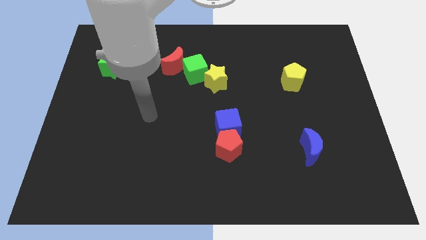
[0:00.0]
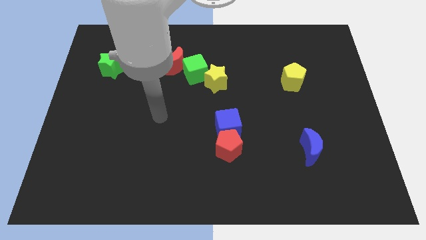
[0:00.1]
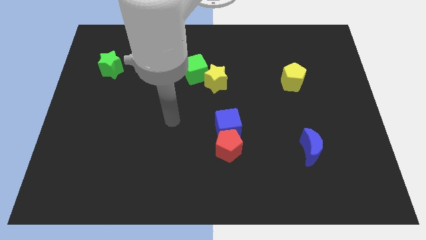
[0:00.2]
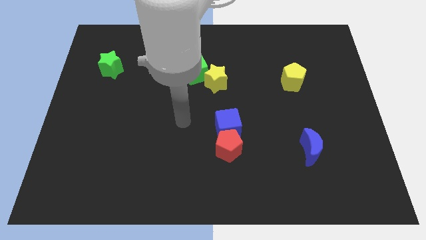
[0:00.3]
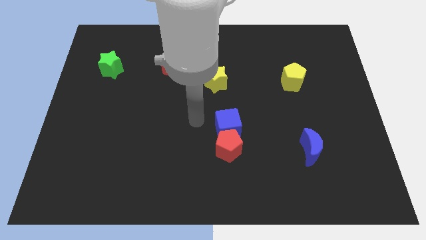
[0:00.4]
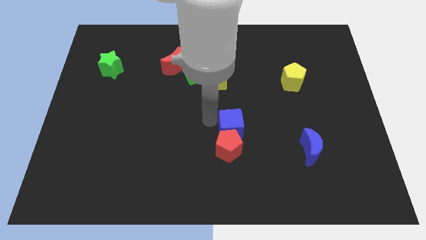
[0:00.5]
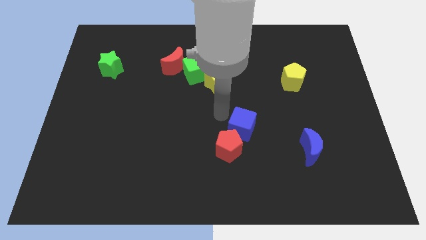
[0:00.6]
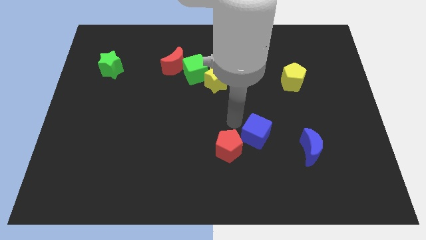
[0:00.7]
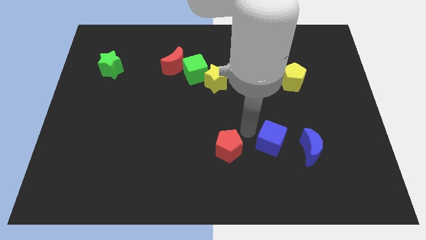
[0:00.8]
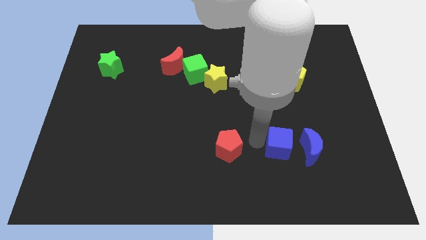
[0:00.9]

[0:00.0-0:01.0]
separate the red pentagon from the blue cube

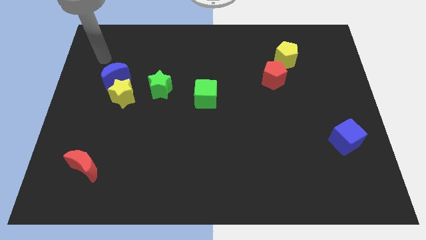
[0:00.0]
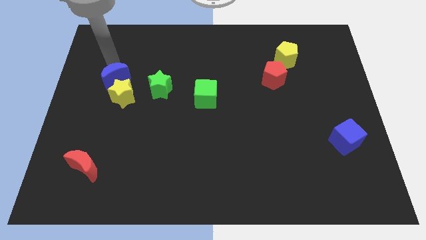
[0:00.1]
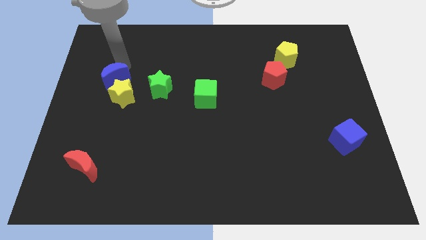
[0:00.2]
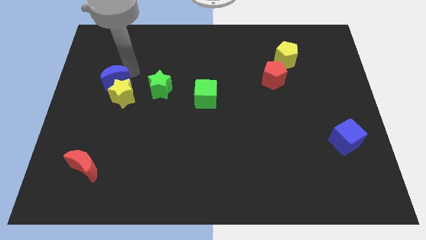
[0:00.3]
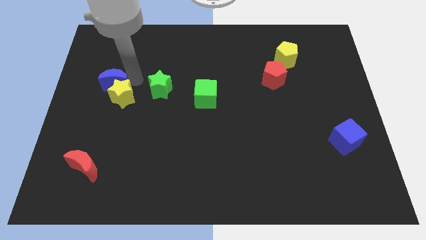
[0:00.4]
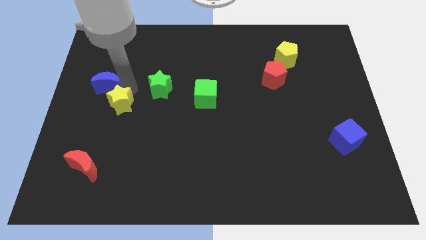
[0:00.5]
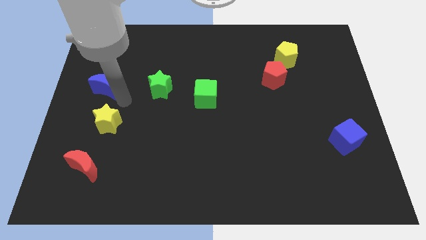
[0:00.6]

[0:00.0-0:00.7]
move the blue moon away from the yellow star

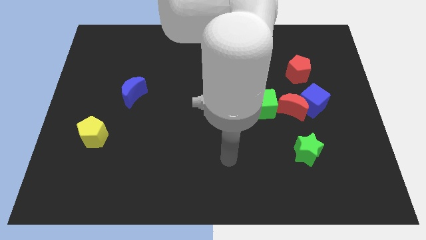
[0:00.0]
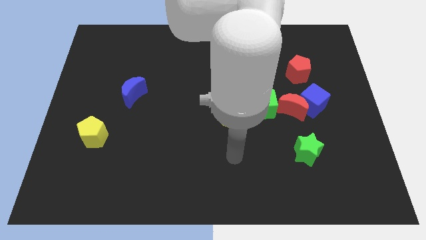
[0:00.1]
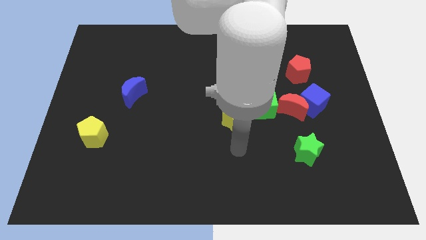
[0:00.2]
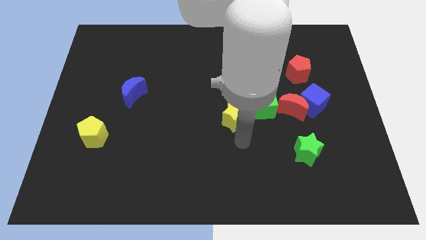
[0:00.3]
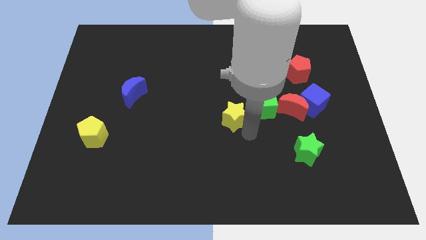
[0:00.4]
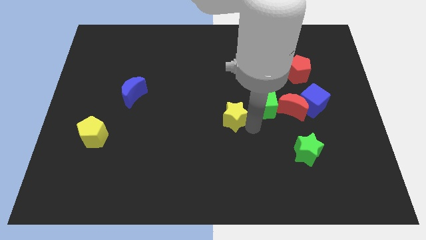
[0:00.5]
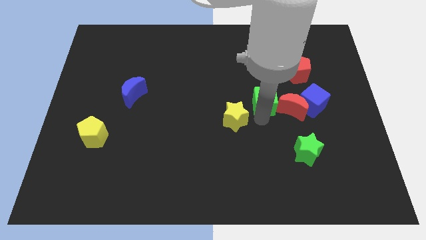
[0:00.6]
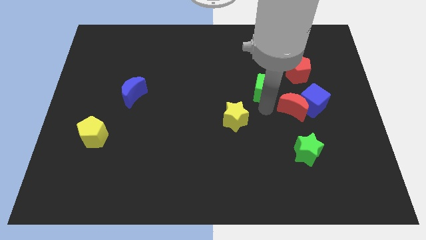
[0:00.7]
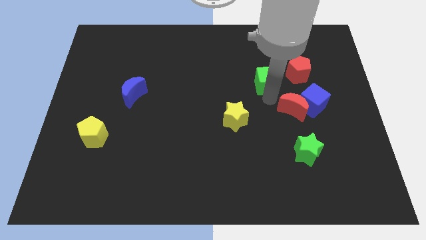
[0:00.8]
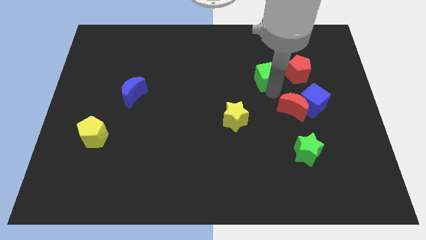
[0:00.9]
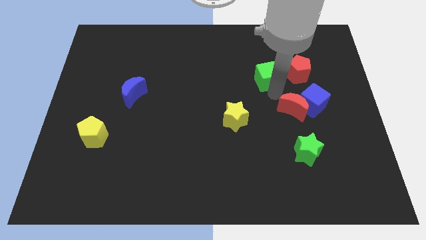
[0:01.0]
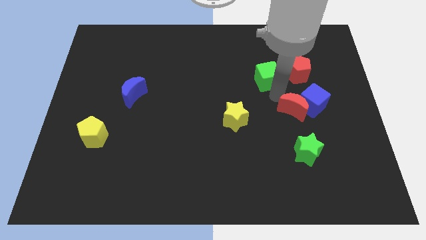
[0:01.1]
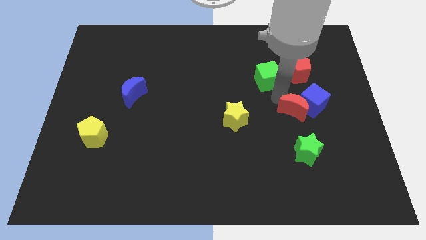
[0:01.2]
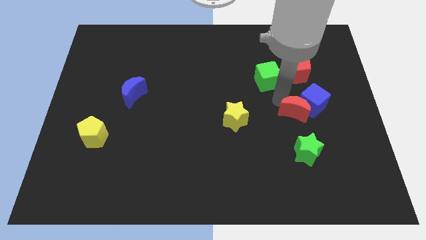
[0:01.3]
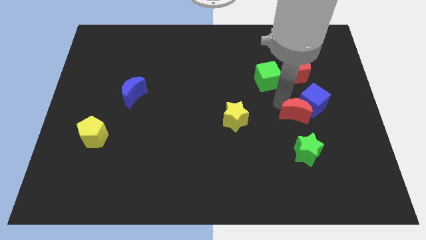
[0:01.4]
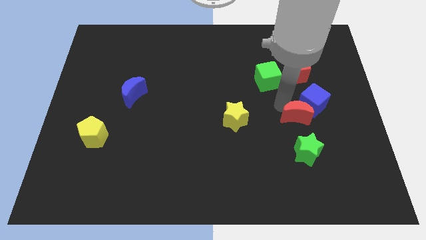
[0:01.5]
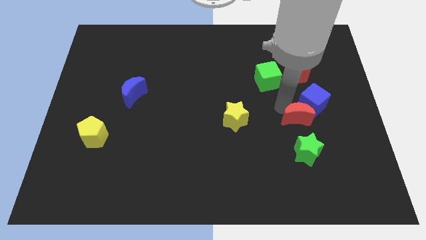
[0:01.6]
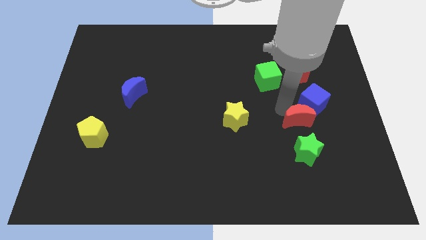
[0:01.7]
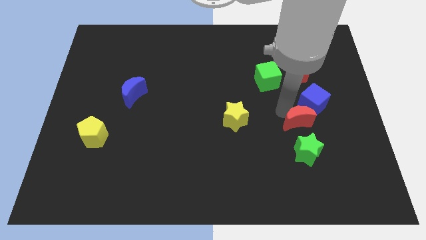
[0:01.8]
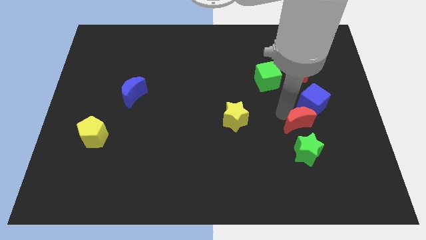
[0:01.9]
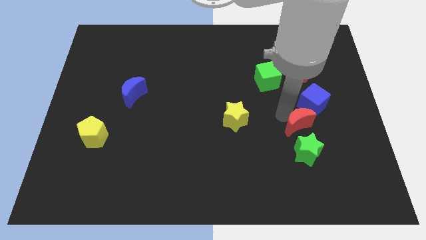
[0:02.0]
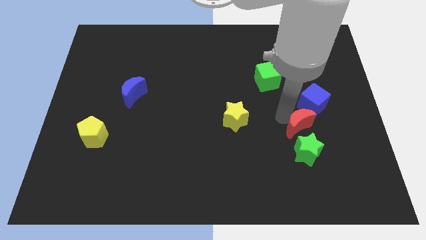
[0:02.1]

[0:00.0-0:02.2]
pull the red moon apart from the blue cube and green cube

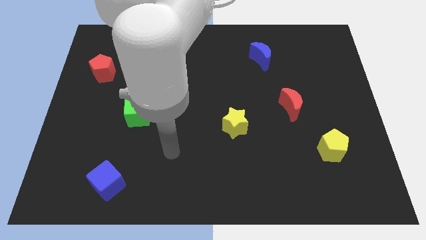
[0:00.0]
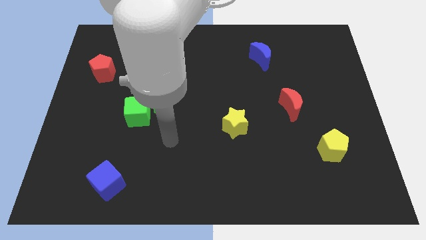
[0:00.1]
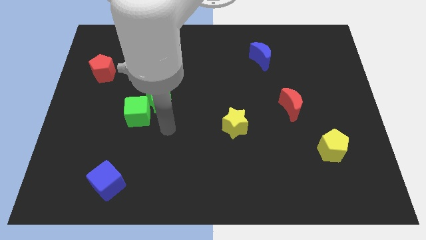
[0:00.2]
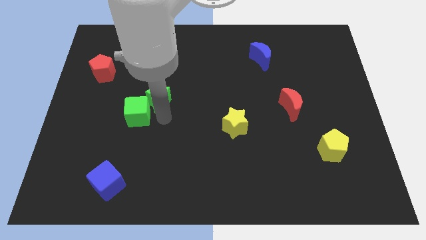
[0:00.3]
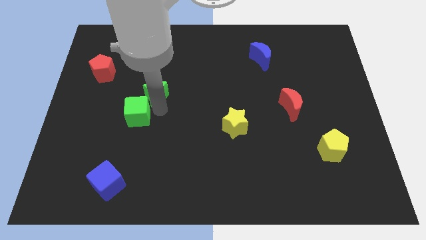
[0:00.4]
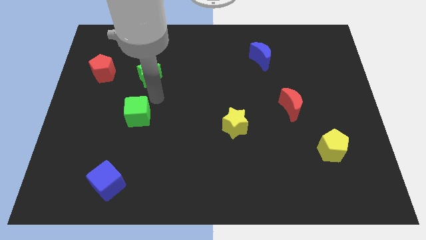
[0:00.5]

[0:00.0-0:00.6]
move the green cube away from the green star

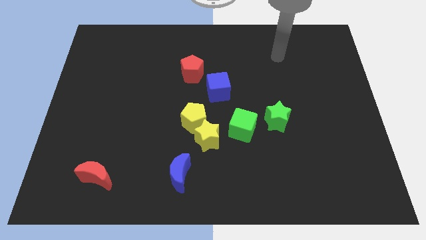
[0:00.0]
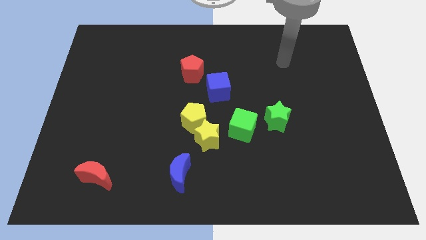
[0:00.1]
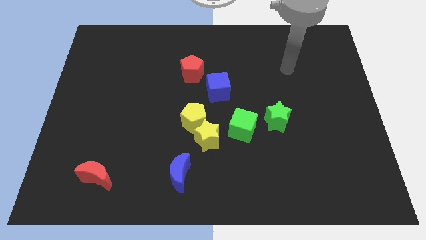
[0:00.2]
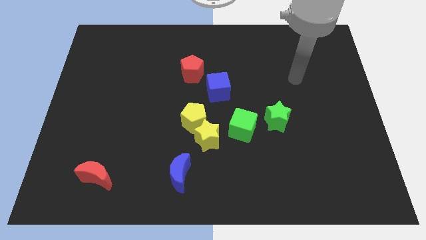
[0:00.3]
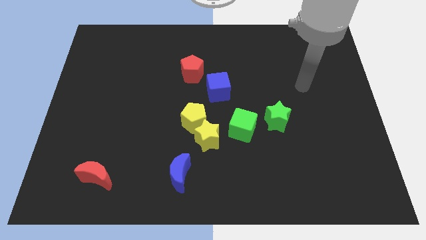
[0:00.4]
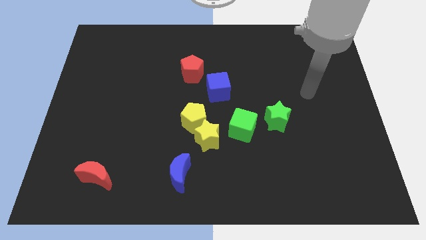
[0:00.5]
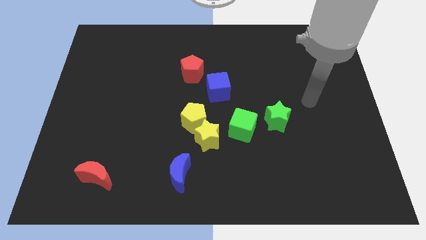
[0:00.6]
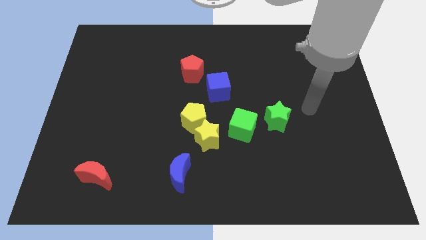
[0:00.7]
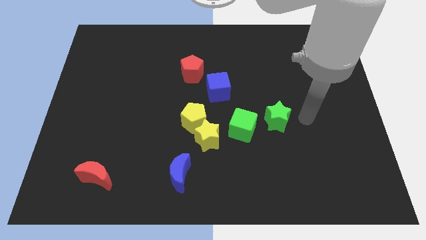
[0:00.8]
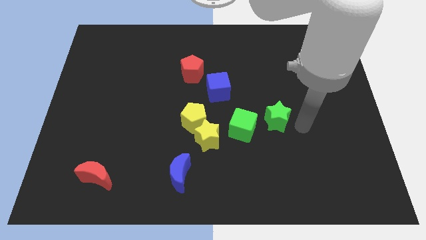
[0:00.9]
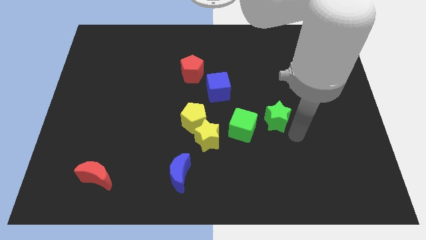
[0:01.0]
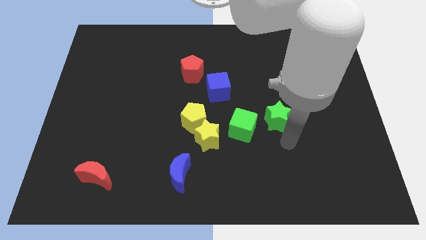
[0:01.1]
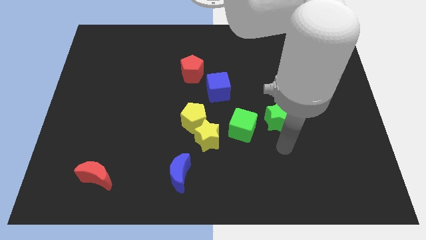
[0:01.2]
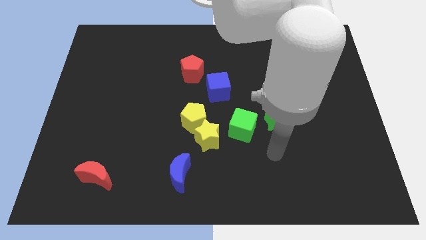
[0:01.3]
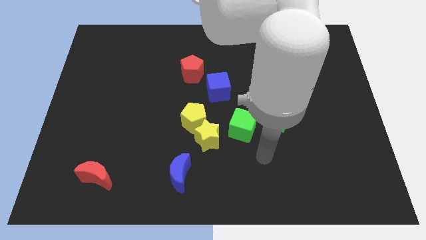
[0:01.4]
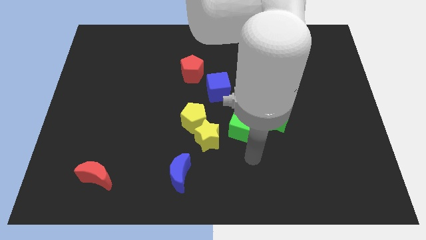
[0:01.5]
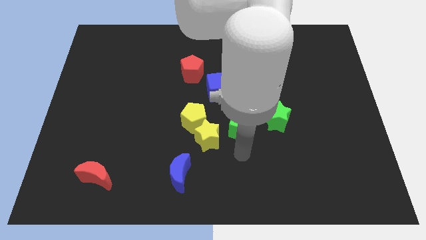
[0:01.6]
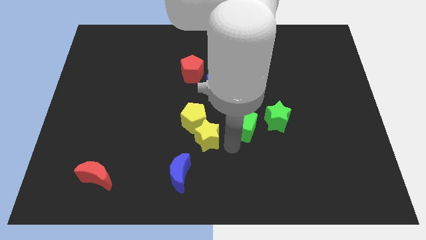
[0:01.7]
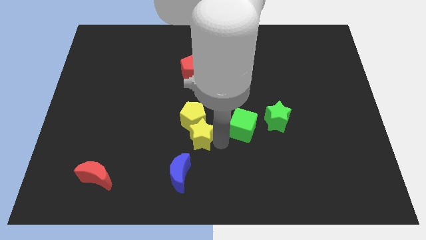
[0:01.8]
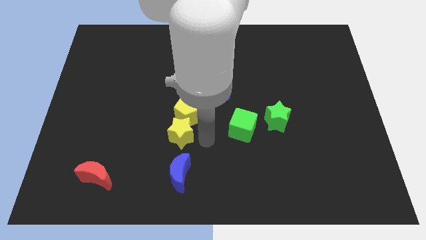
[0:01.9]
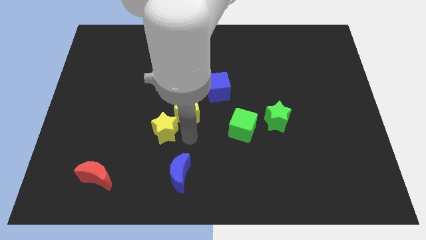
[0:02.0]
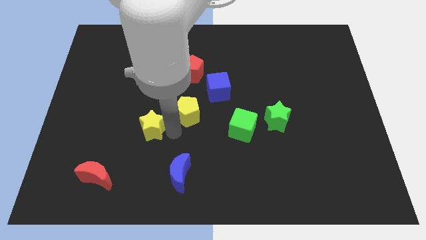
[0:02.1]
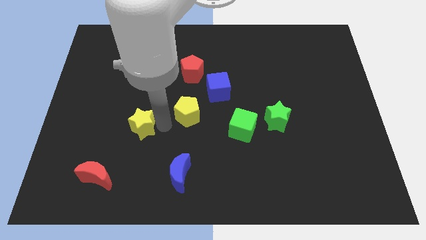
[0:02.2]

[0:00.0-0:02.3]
pull the yellow pentagon apart from the yellow star

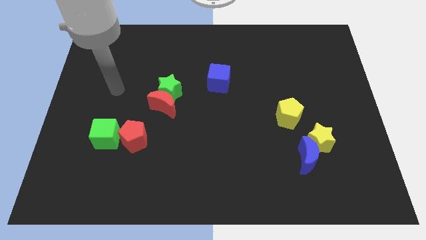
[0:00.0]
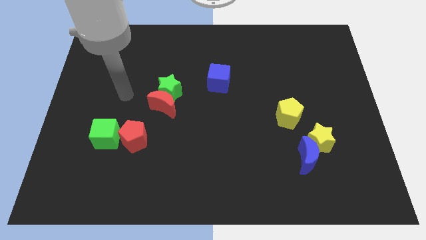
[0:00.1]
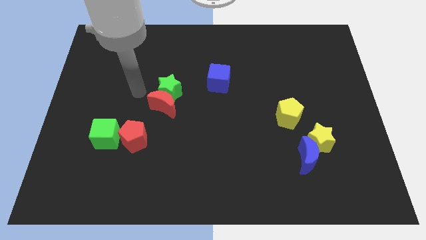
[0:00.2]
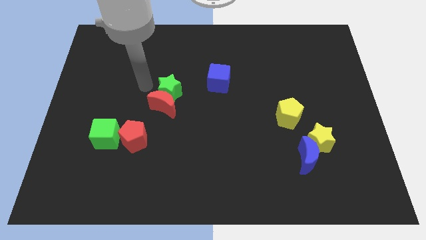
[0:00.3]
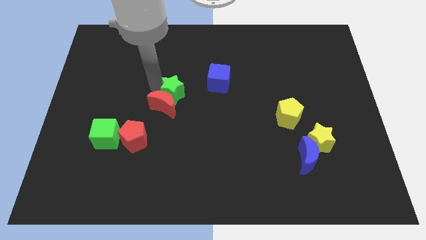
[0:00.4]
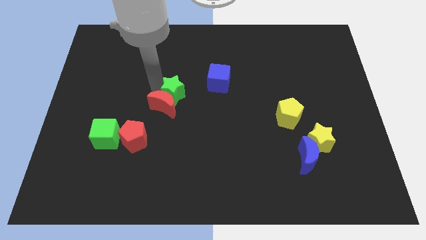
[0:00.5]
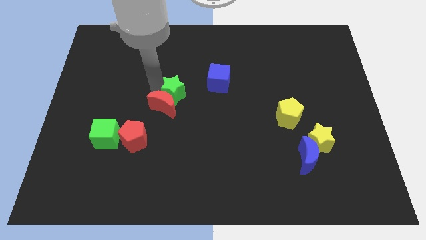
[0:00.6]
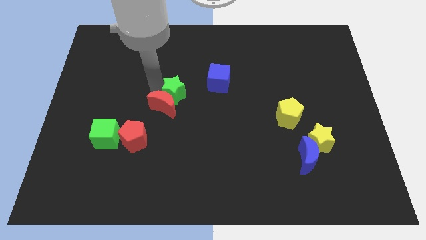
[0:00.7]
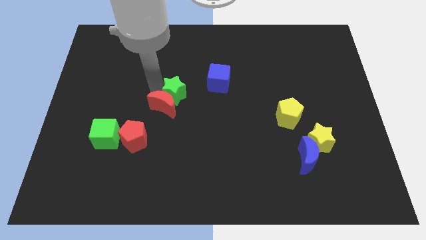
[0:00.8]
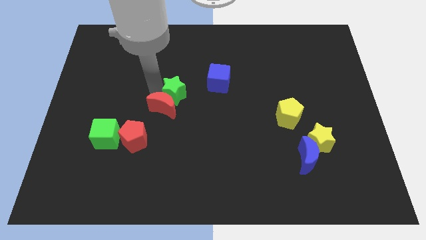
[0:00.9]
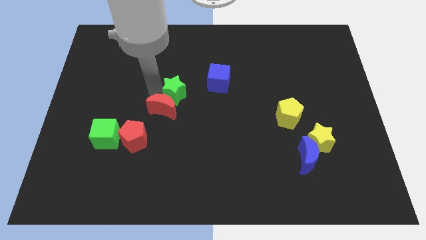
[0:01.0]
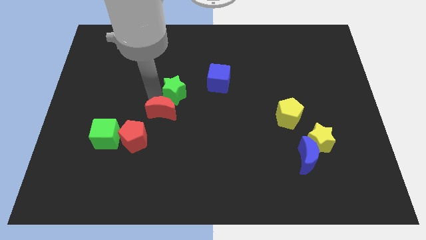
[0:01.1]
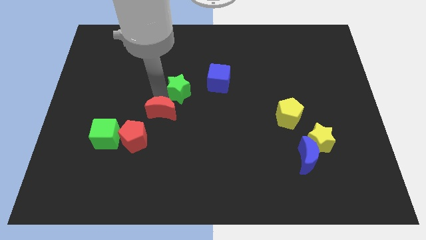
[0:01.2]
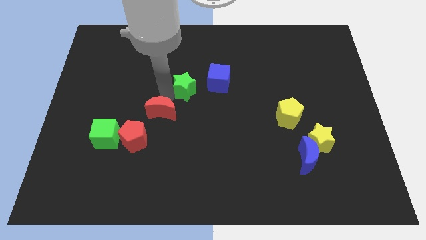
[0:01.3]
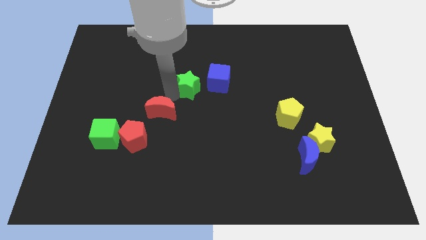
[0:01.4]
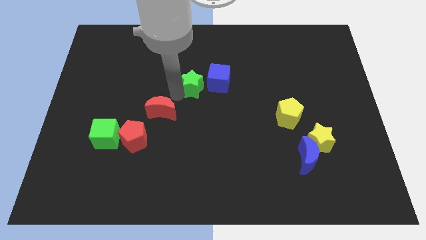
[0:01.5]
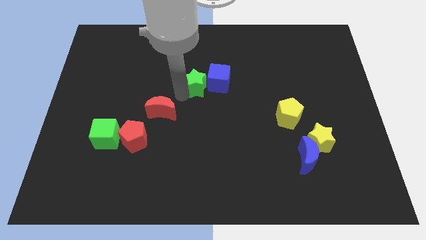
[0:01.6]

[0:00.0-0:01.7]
pull the red moon apart from the green star

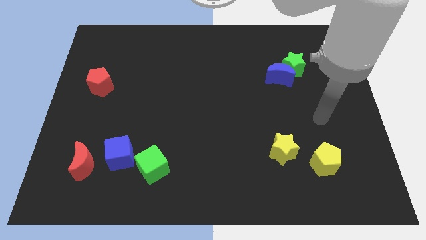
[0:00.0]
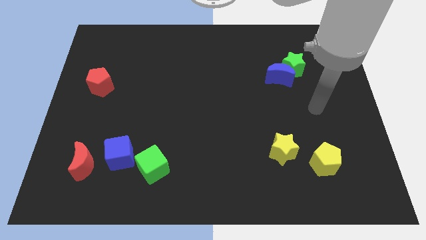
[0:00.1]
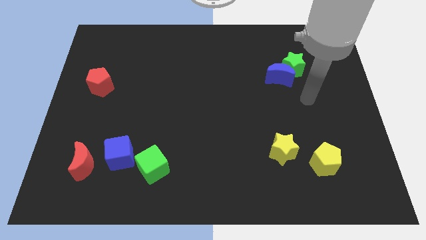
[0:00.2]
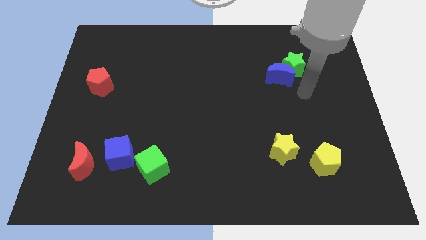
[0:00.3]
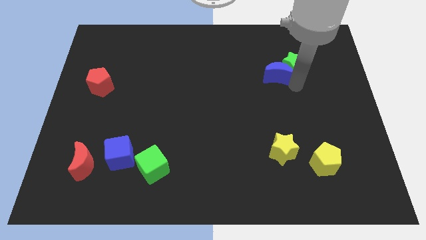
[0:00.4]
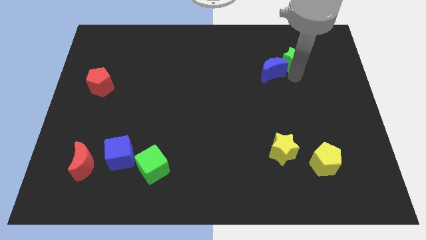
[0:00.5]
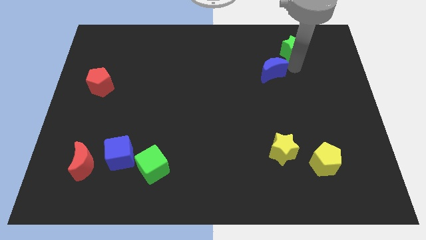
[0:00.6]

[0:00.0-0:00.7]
pull the blue moon apart from the green star
